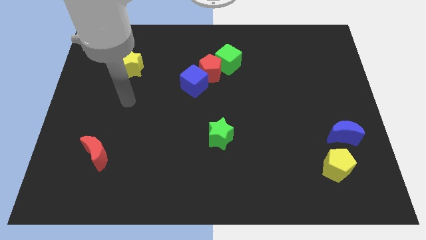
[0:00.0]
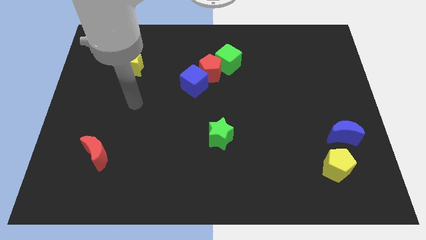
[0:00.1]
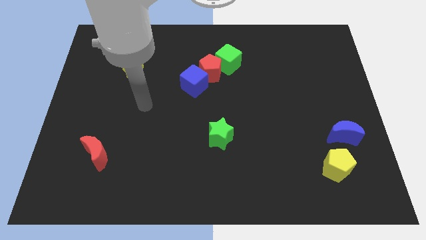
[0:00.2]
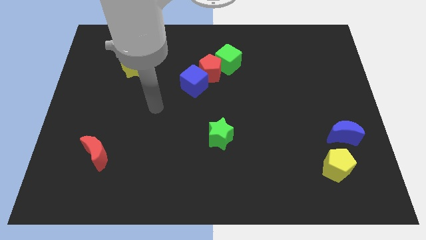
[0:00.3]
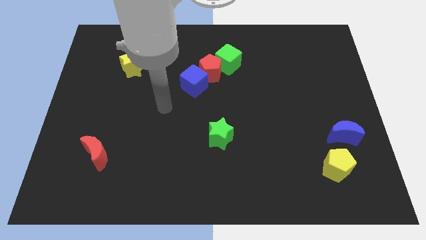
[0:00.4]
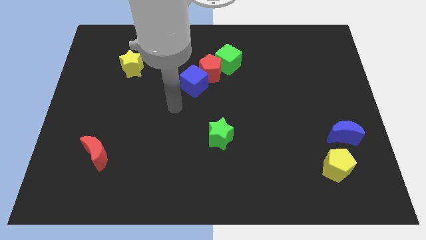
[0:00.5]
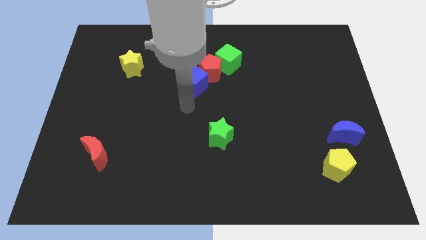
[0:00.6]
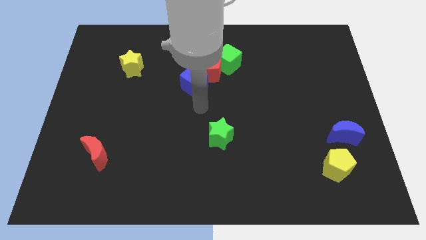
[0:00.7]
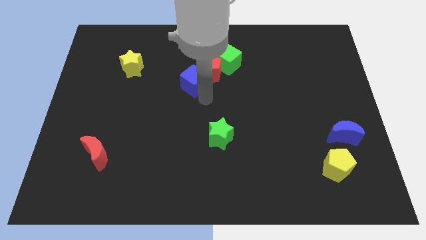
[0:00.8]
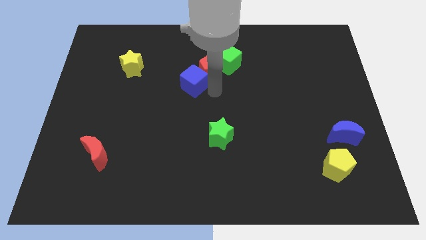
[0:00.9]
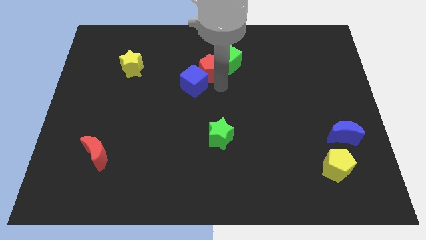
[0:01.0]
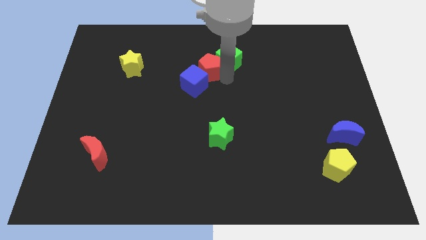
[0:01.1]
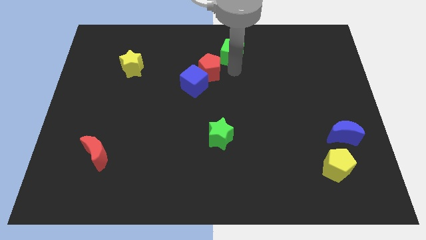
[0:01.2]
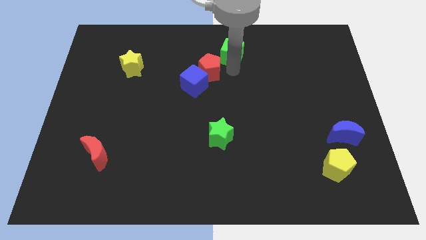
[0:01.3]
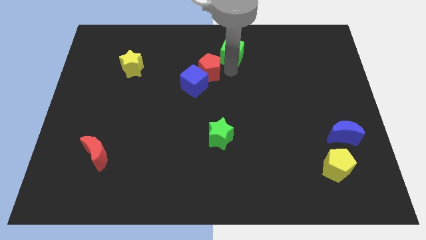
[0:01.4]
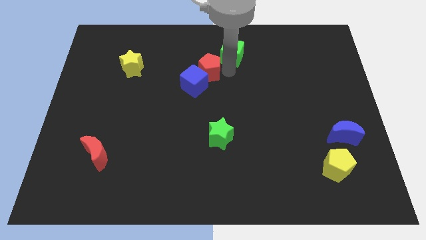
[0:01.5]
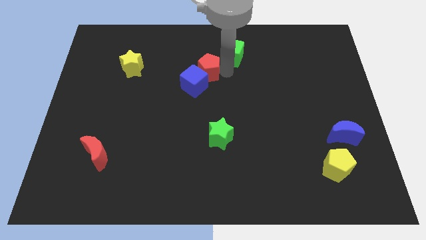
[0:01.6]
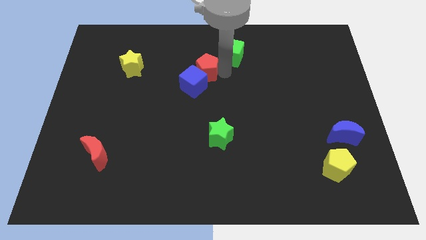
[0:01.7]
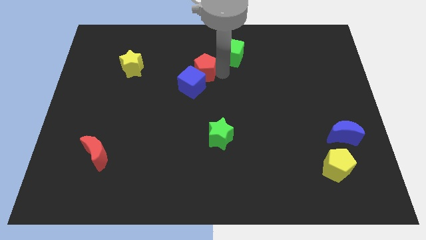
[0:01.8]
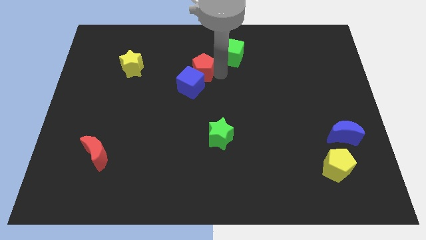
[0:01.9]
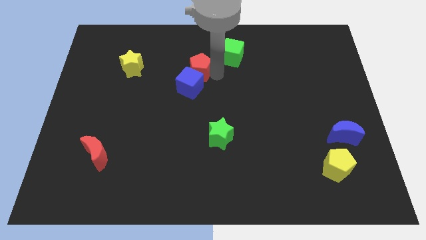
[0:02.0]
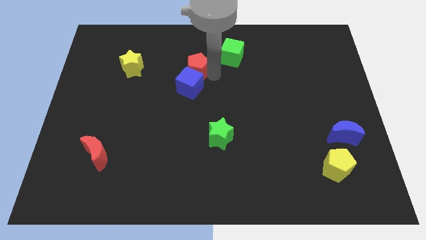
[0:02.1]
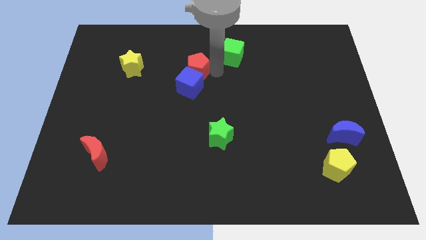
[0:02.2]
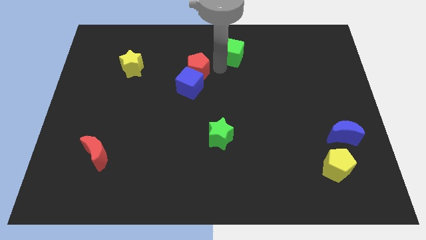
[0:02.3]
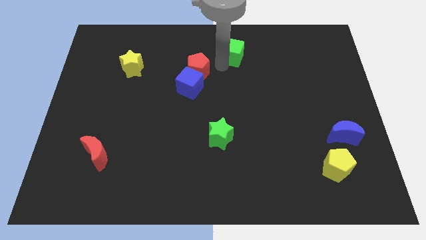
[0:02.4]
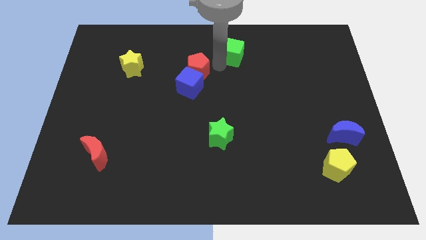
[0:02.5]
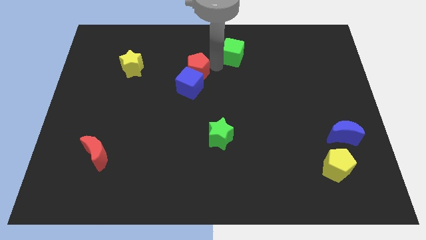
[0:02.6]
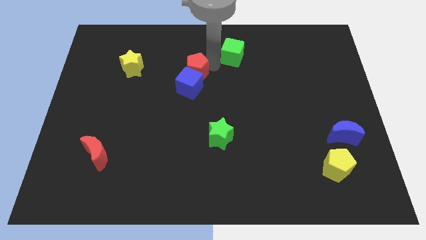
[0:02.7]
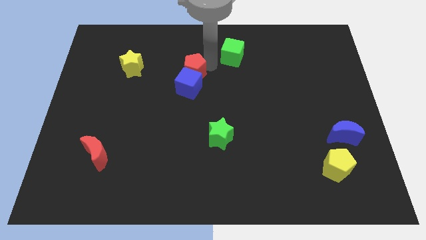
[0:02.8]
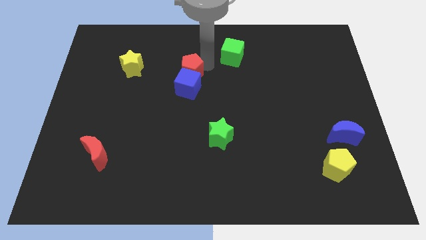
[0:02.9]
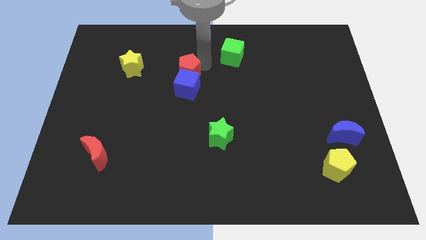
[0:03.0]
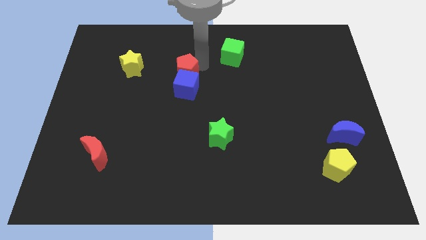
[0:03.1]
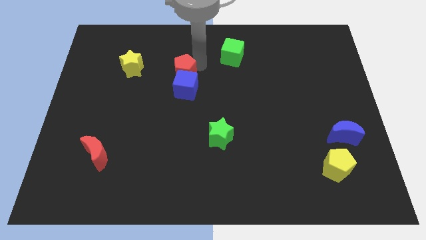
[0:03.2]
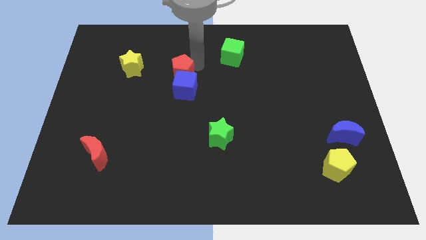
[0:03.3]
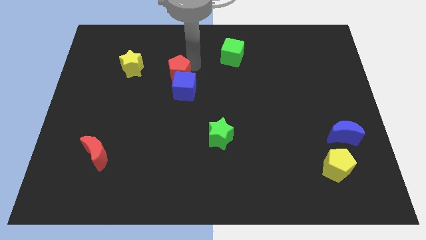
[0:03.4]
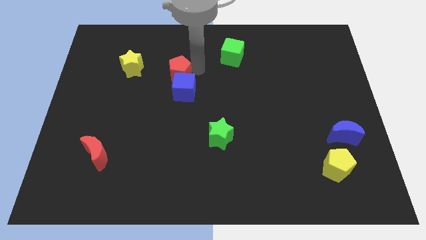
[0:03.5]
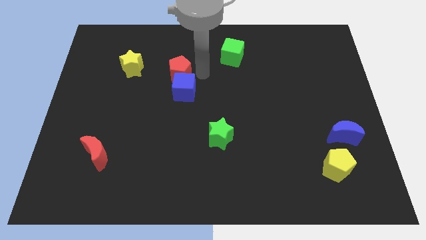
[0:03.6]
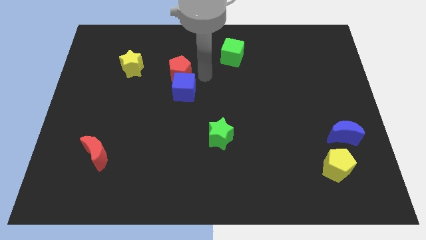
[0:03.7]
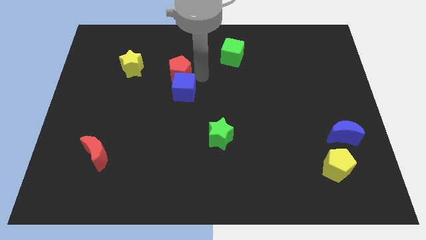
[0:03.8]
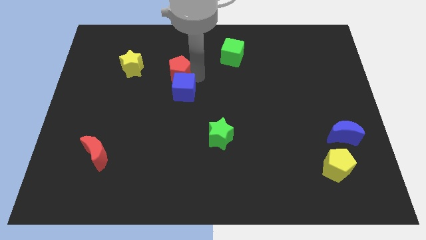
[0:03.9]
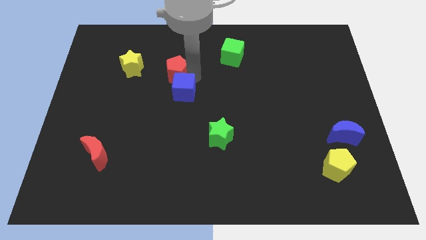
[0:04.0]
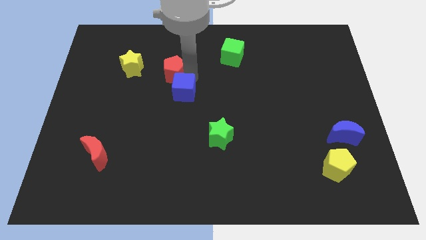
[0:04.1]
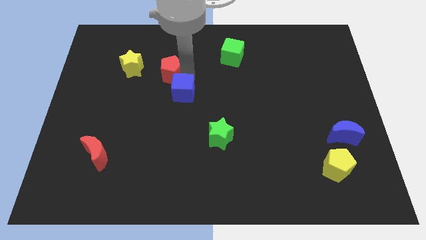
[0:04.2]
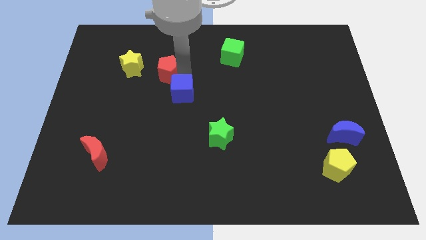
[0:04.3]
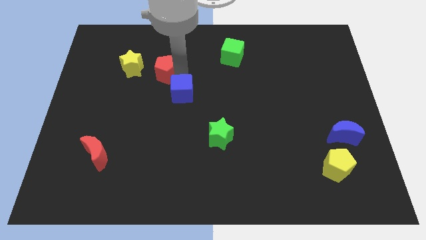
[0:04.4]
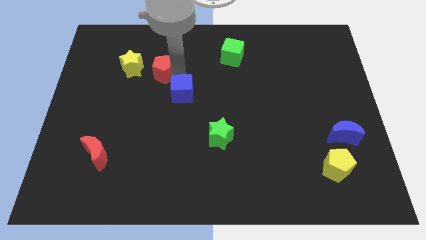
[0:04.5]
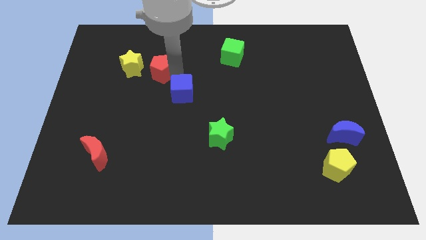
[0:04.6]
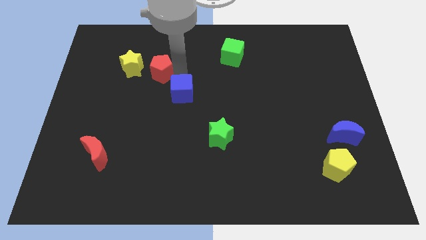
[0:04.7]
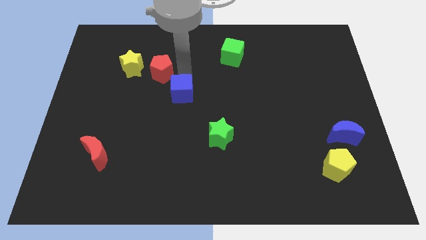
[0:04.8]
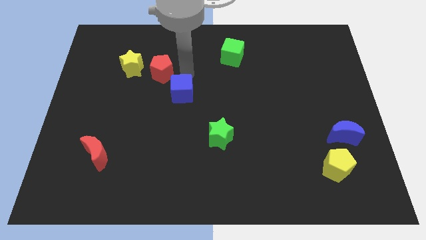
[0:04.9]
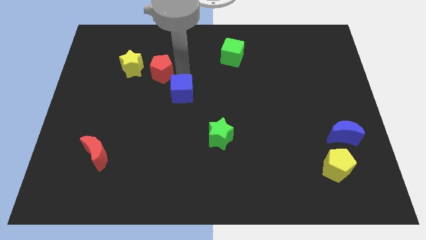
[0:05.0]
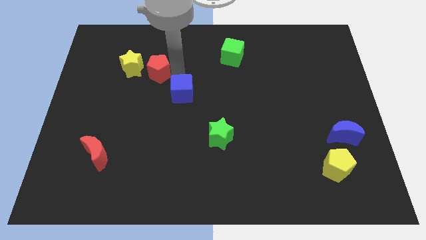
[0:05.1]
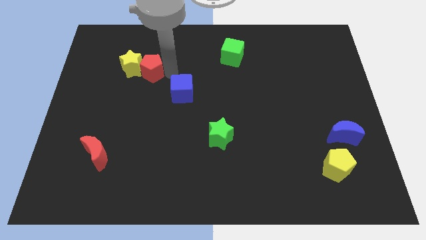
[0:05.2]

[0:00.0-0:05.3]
slide the red pentagon next to the yellow star

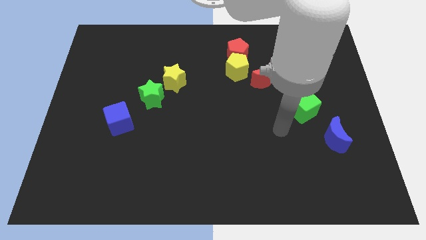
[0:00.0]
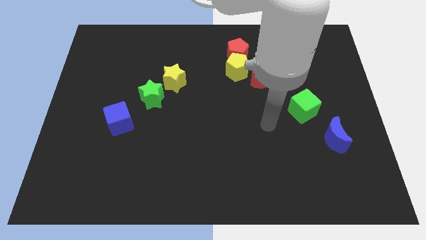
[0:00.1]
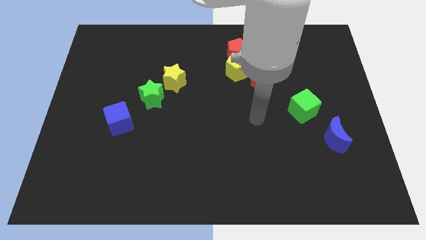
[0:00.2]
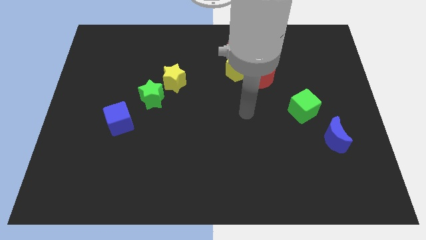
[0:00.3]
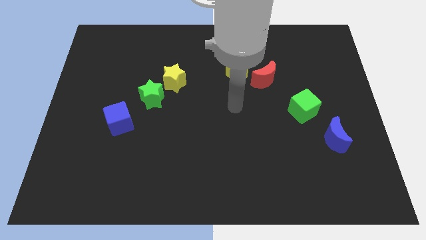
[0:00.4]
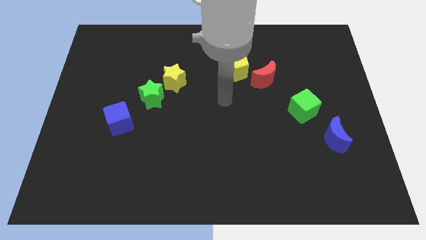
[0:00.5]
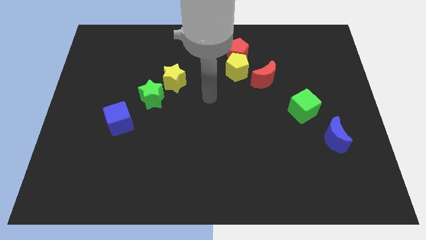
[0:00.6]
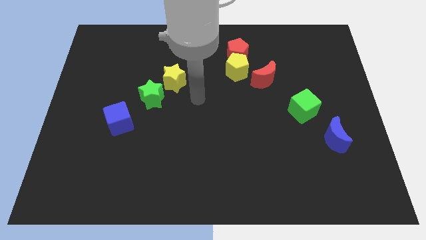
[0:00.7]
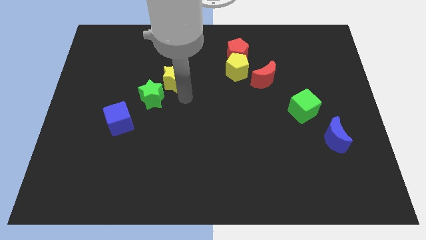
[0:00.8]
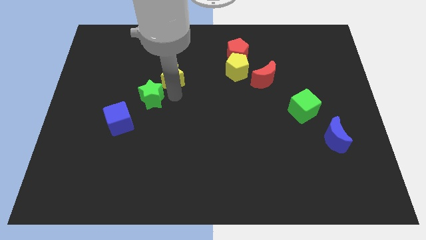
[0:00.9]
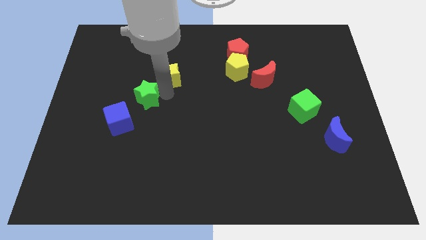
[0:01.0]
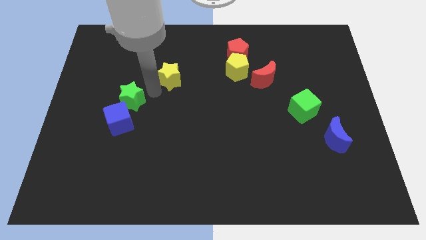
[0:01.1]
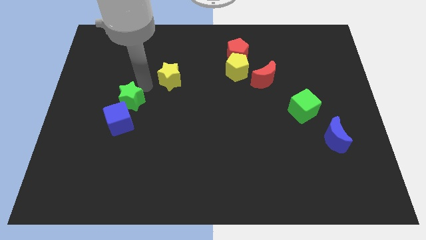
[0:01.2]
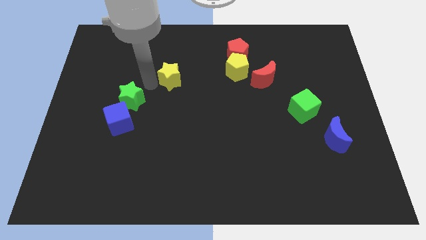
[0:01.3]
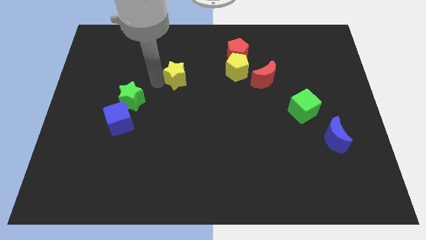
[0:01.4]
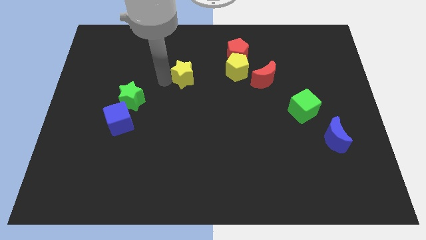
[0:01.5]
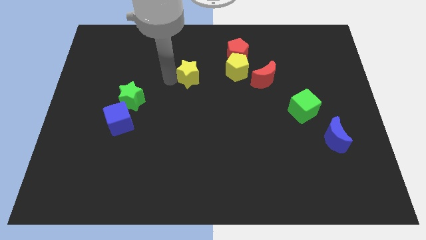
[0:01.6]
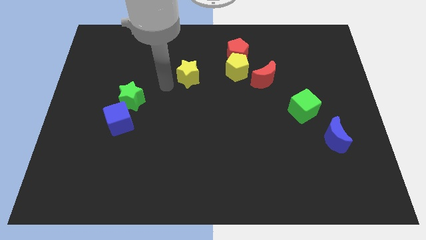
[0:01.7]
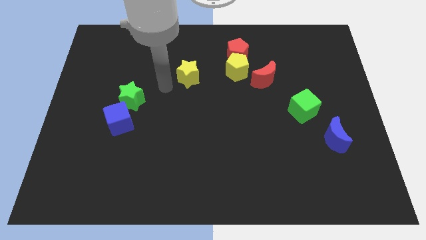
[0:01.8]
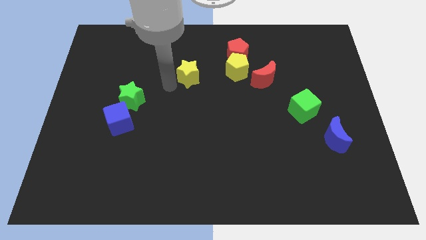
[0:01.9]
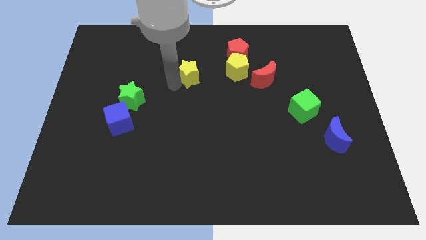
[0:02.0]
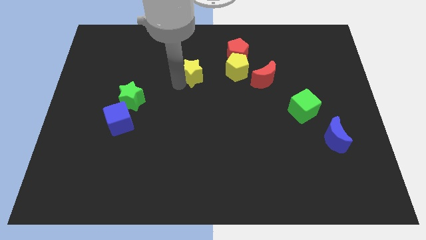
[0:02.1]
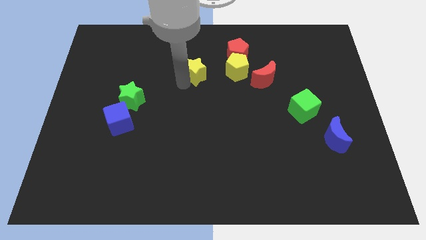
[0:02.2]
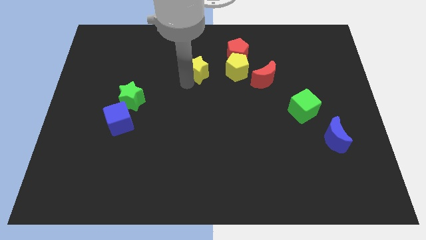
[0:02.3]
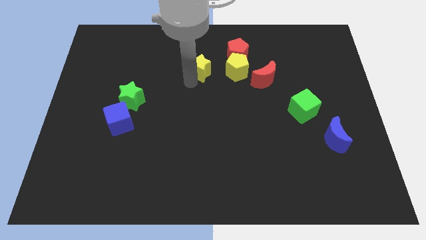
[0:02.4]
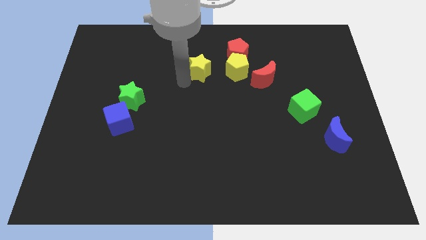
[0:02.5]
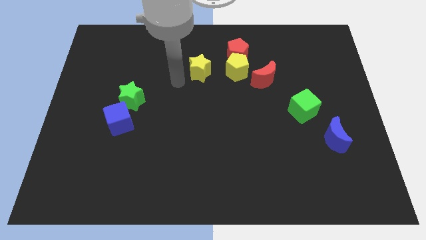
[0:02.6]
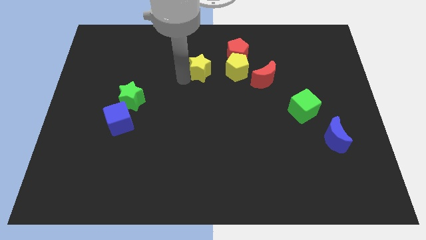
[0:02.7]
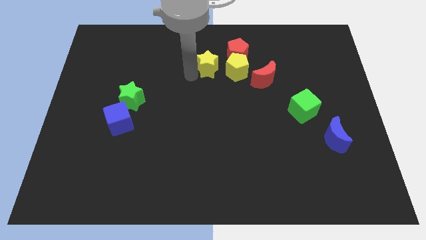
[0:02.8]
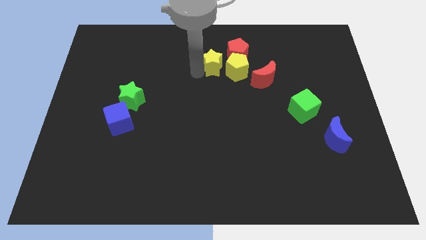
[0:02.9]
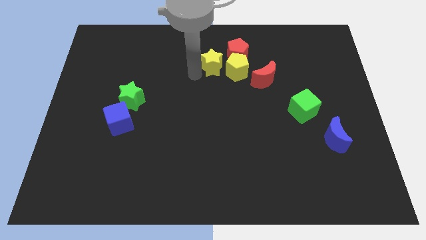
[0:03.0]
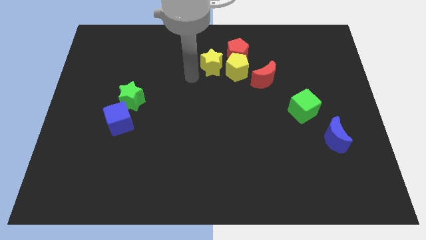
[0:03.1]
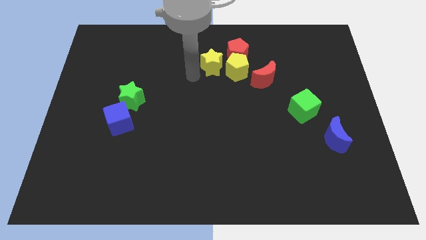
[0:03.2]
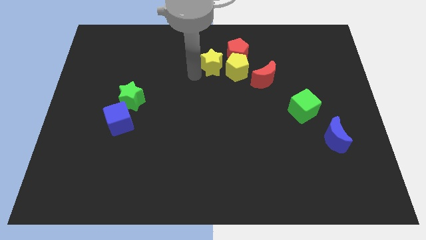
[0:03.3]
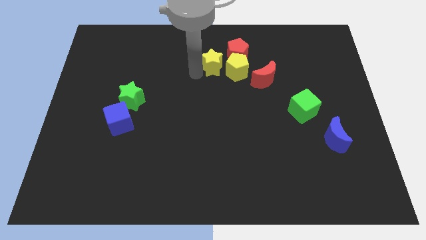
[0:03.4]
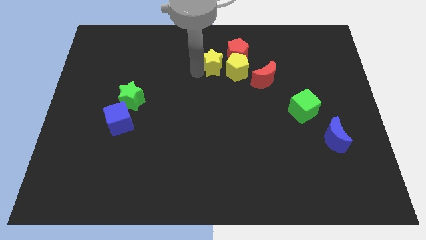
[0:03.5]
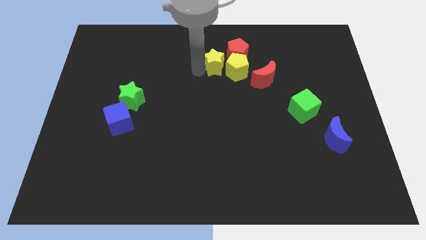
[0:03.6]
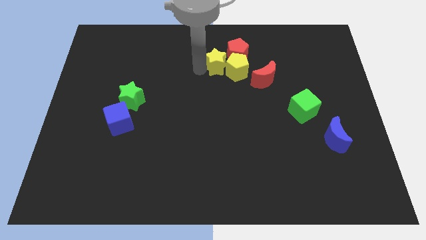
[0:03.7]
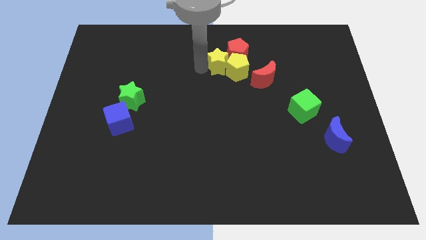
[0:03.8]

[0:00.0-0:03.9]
push the yellow star towards the red pentagon
